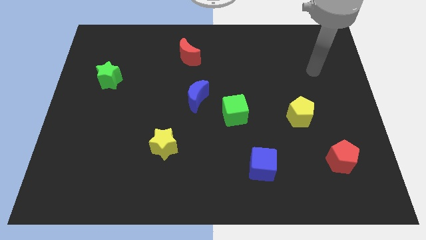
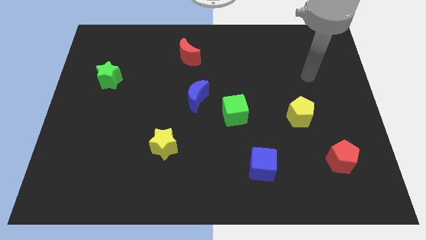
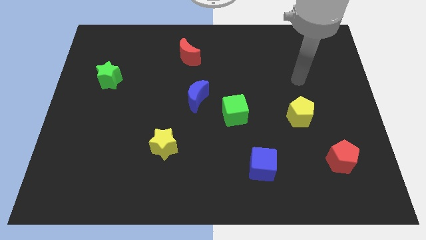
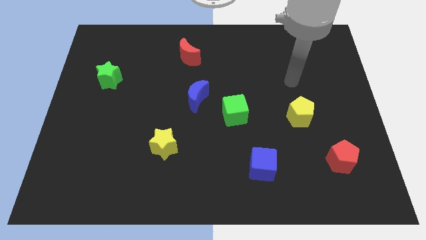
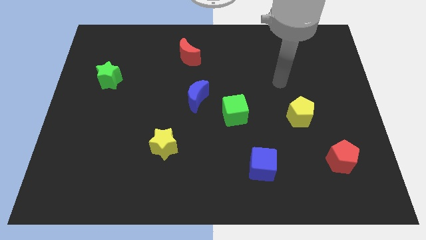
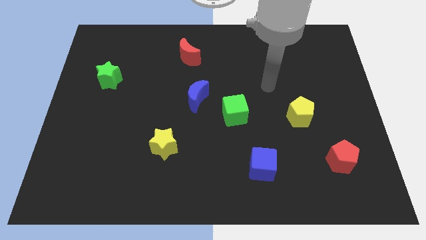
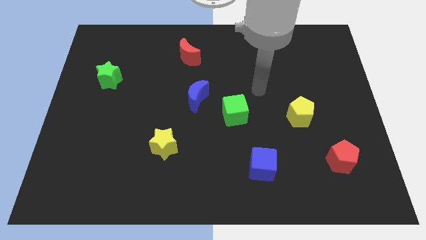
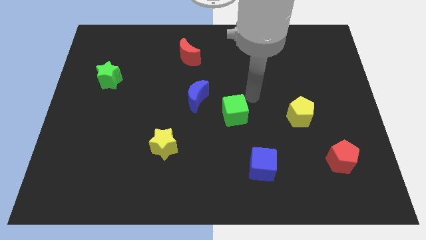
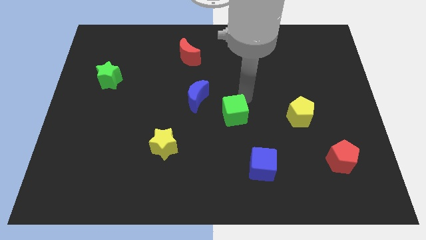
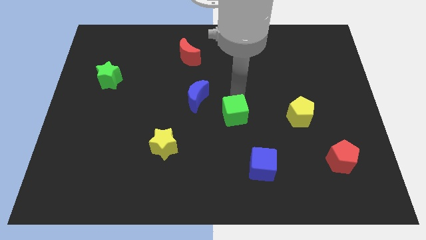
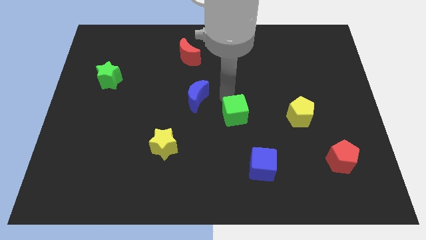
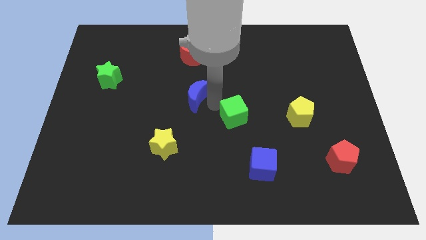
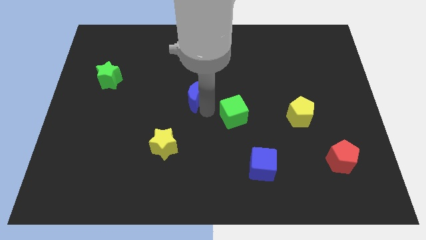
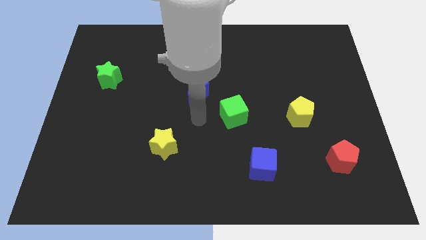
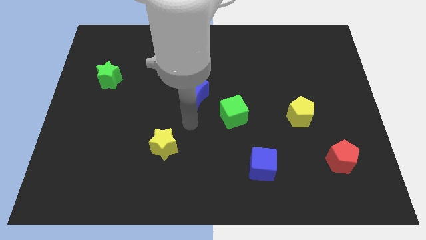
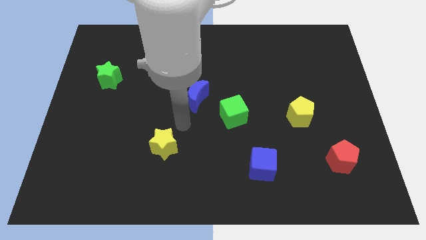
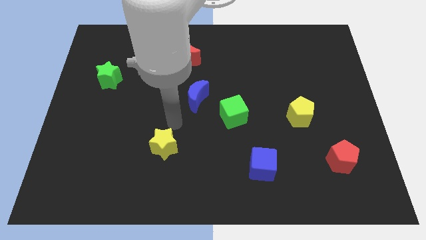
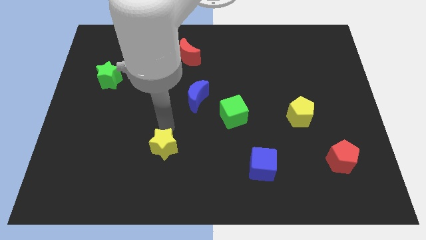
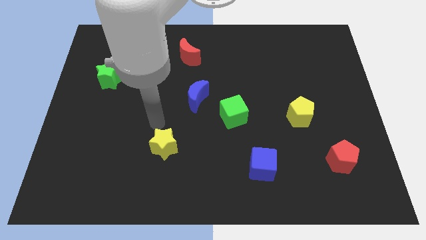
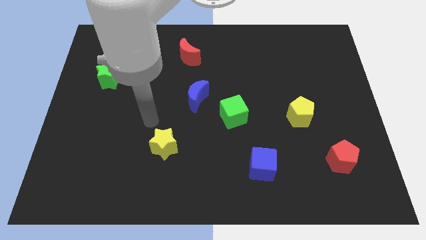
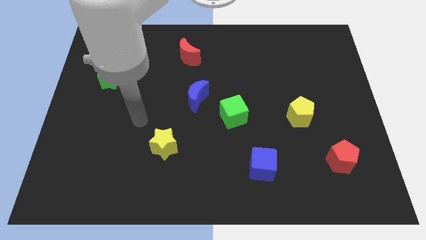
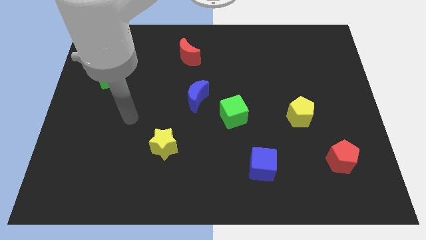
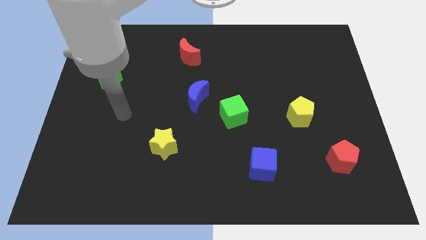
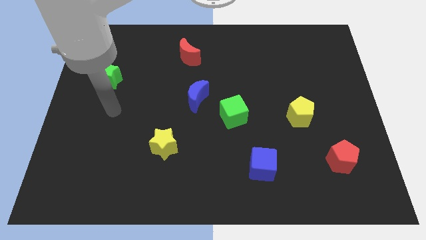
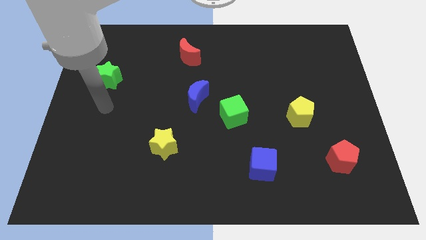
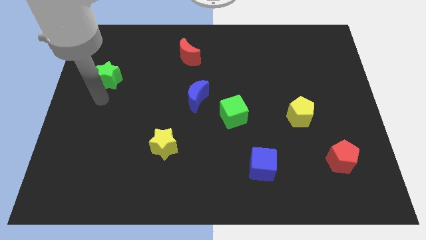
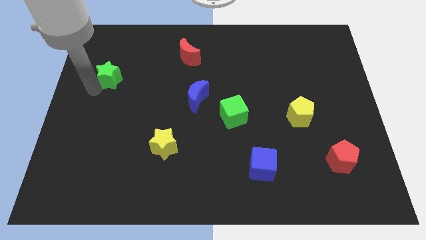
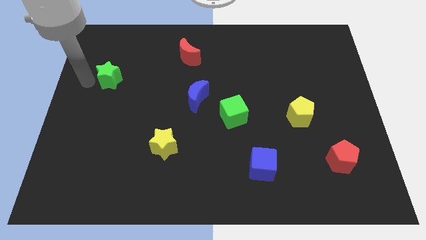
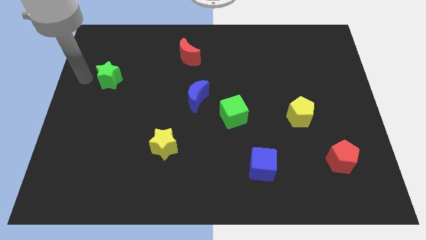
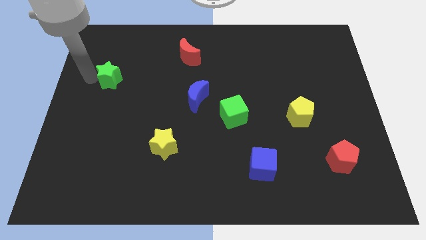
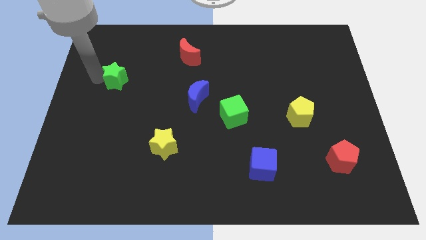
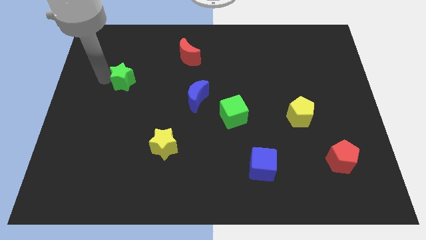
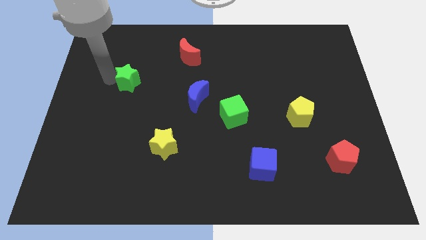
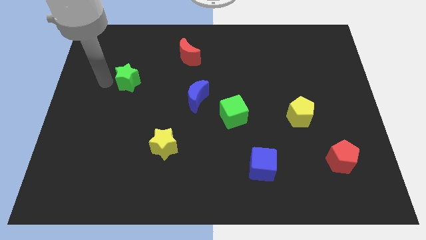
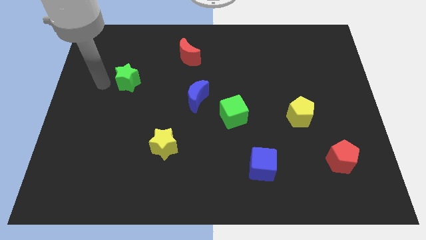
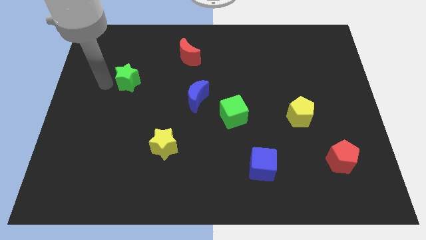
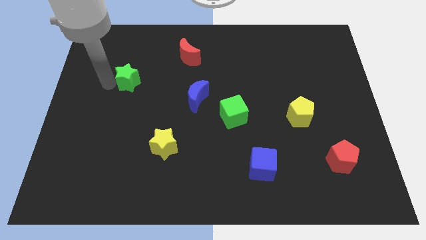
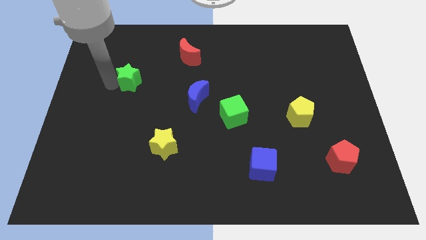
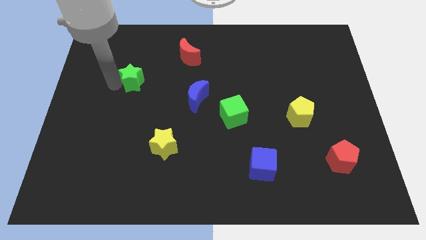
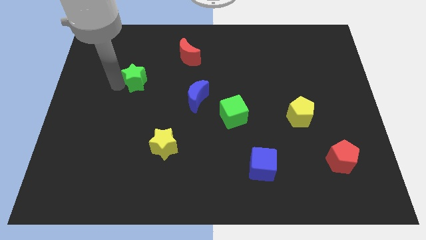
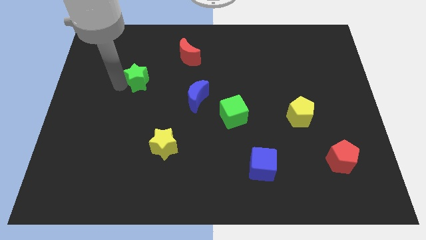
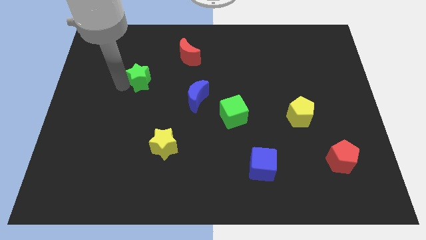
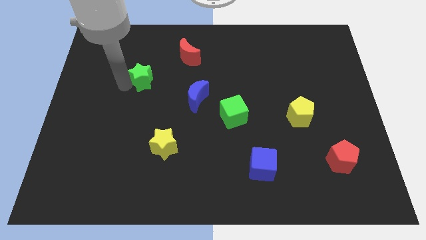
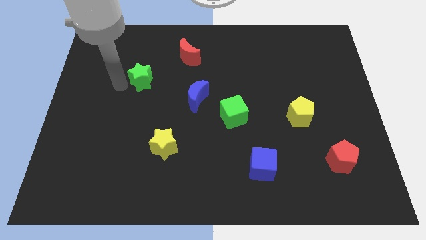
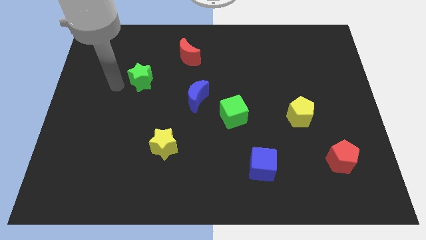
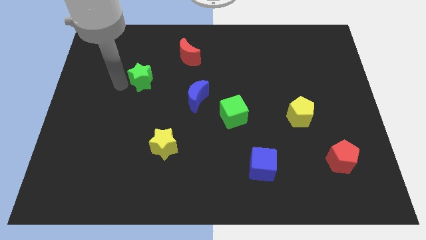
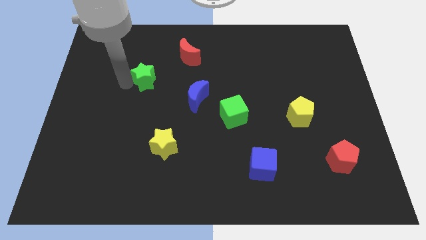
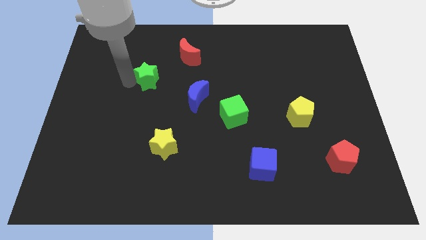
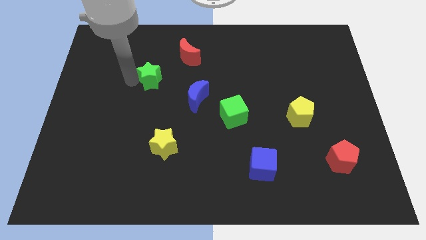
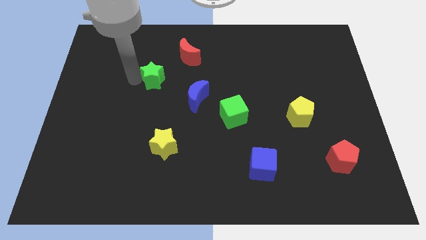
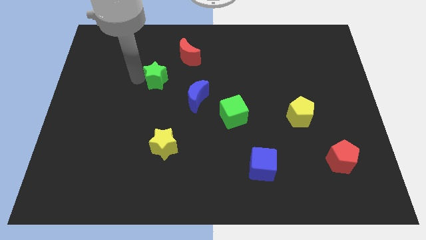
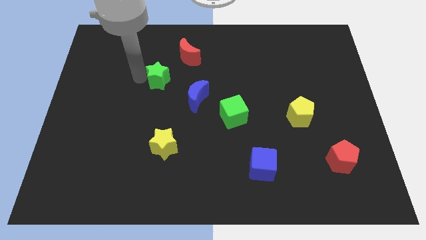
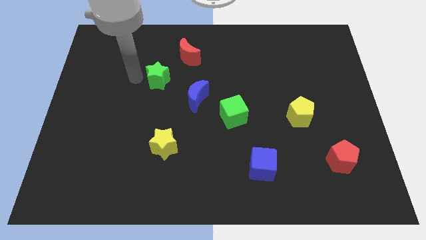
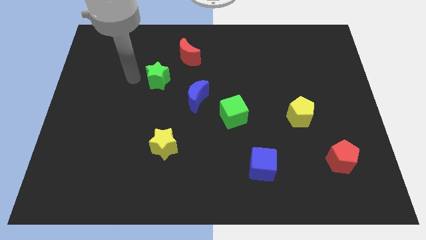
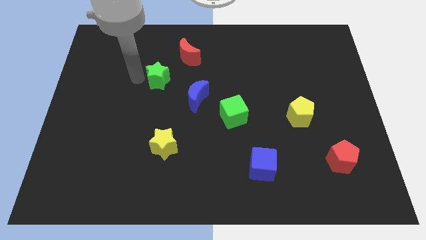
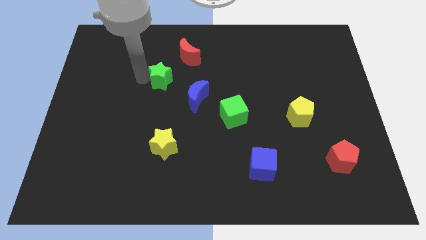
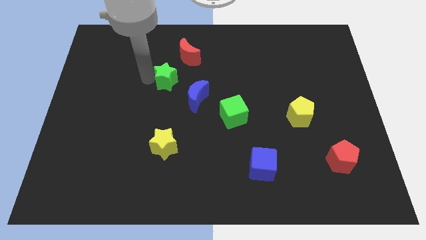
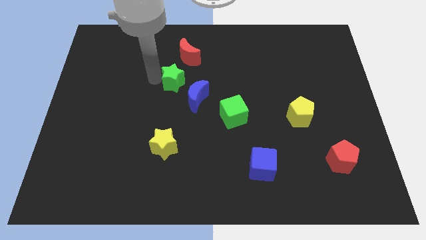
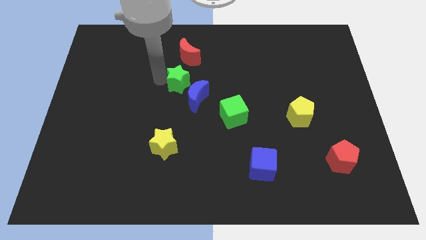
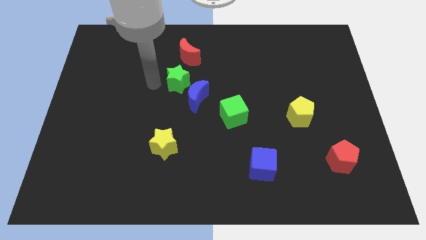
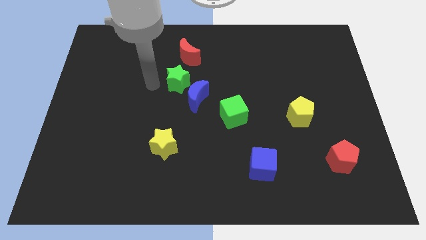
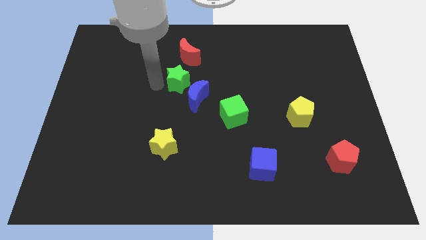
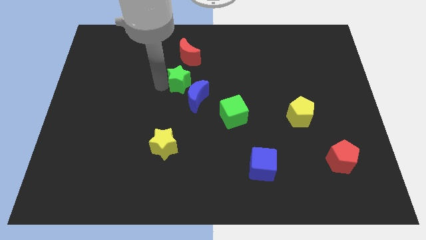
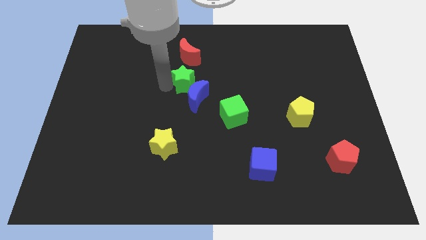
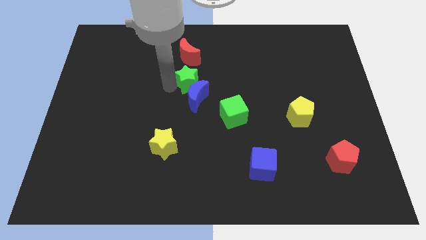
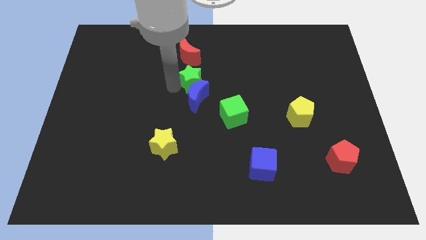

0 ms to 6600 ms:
push the green star to the right

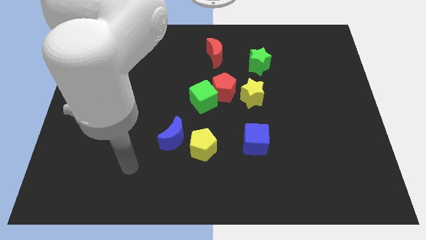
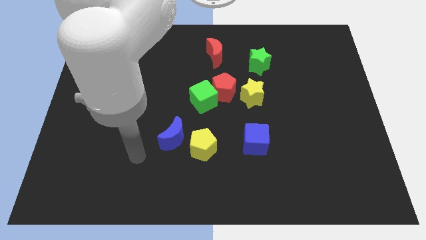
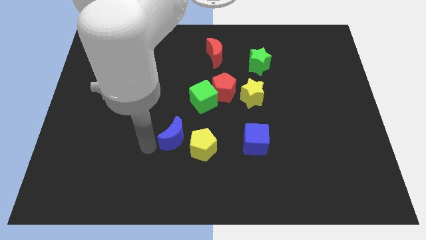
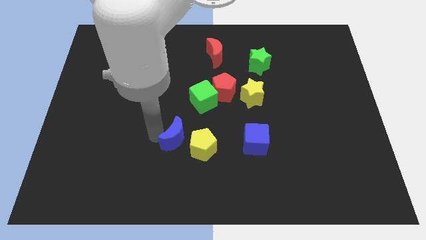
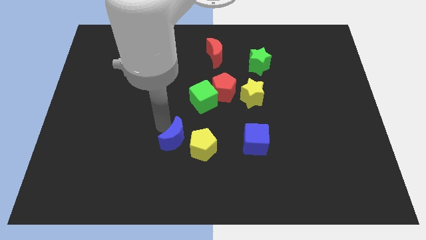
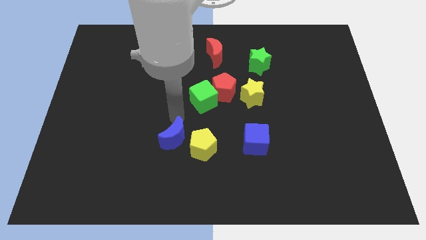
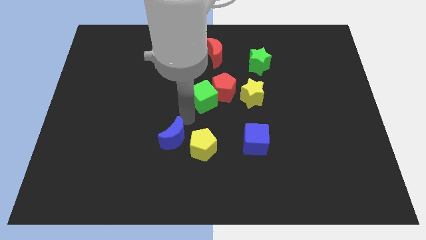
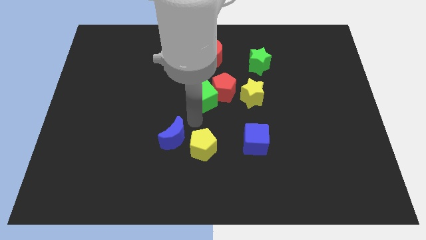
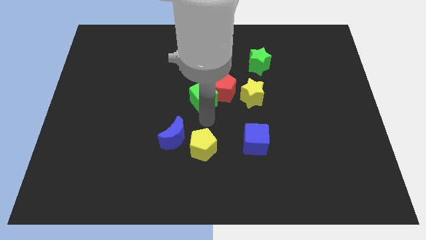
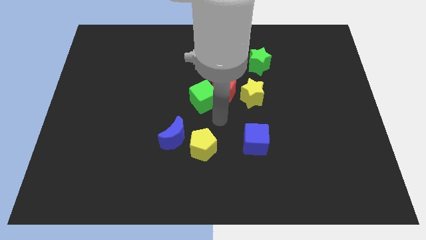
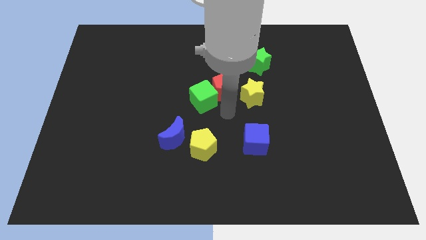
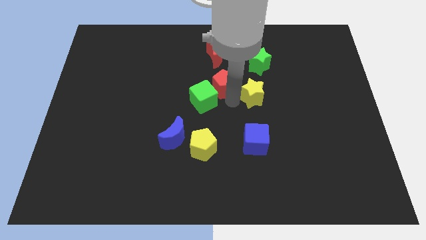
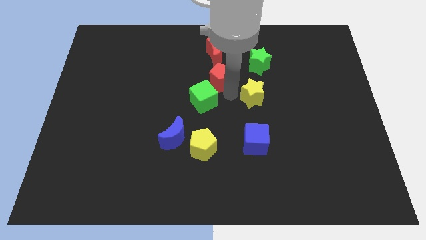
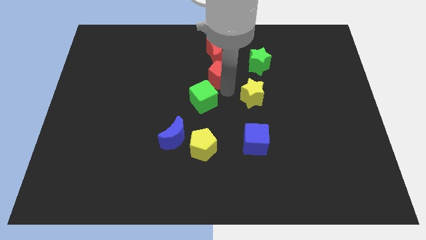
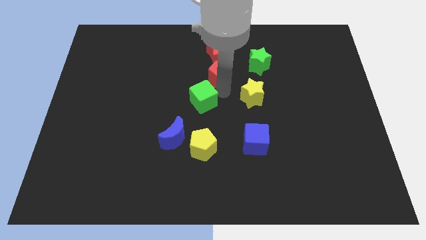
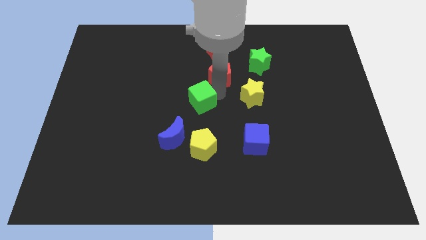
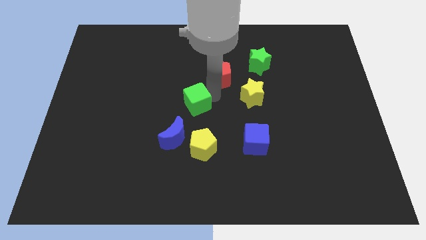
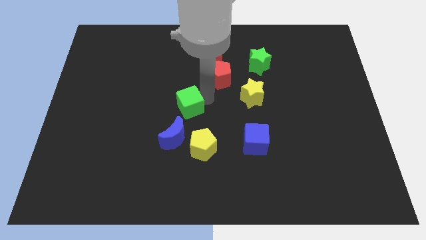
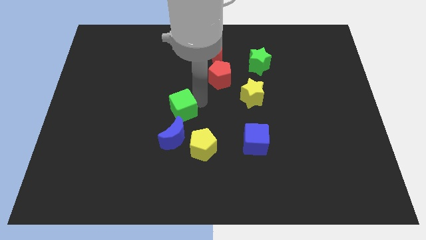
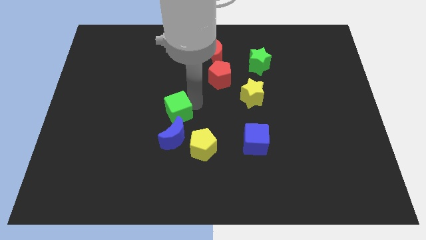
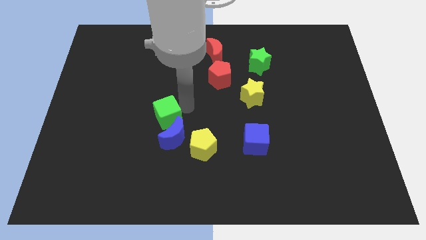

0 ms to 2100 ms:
push the green cube down and then left somewhat
